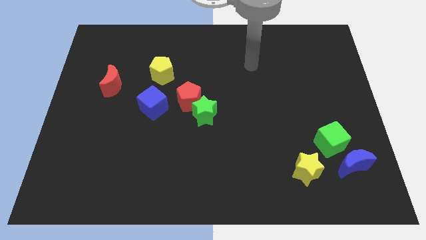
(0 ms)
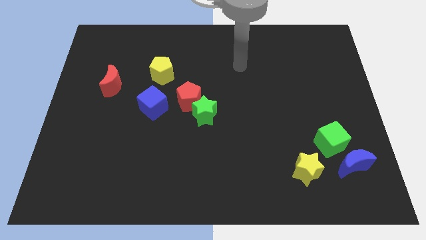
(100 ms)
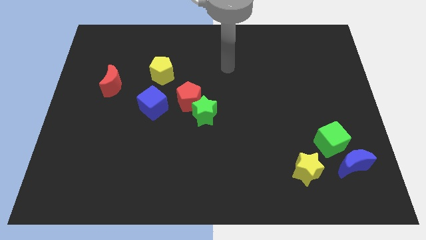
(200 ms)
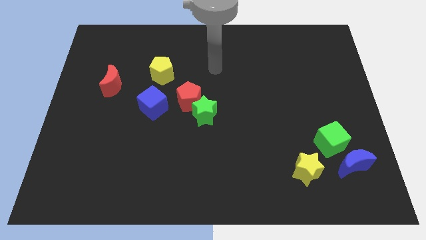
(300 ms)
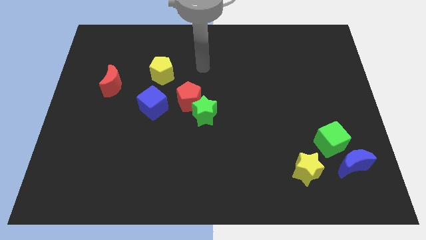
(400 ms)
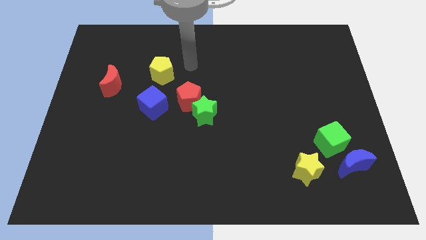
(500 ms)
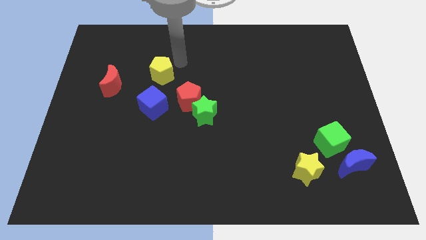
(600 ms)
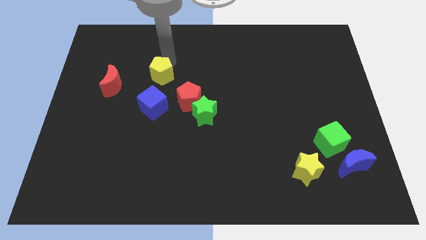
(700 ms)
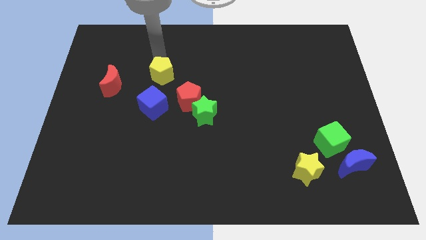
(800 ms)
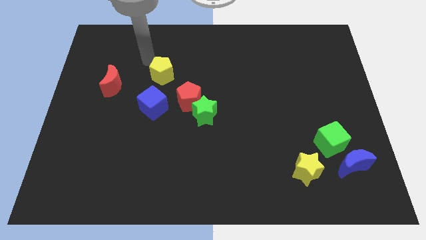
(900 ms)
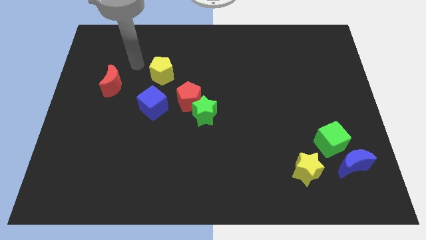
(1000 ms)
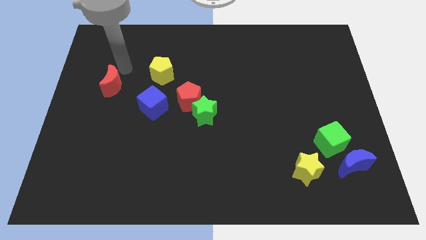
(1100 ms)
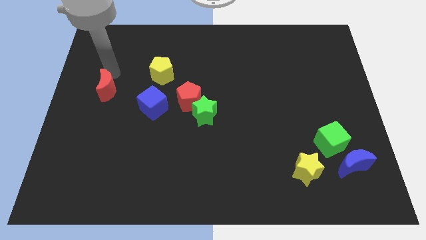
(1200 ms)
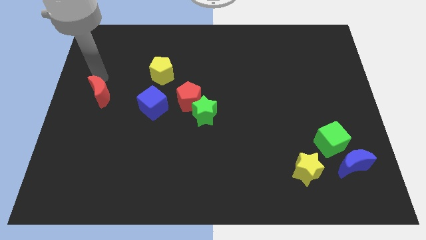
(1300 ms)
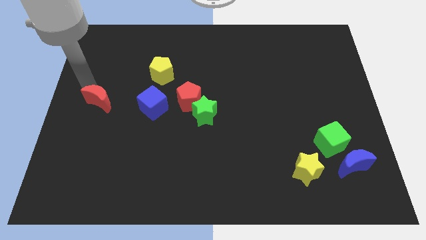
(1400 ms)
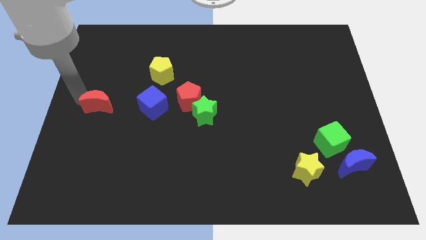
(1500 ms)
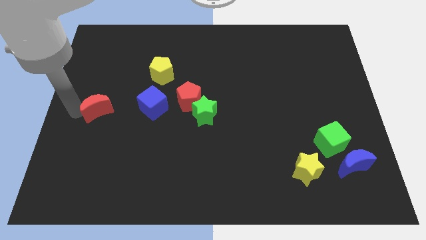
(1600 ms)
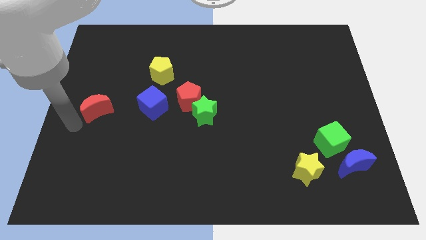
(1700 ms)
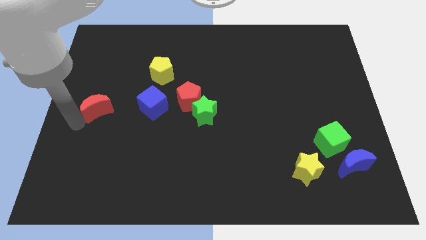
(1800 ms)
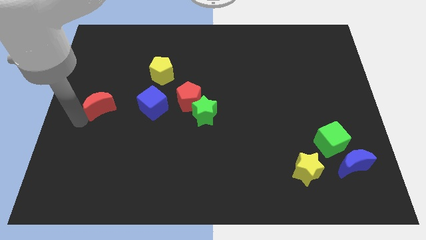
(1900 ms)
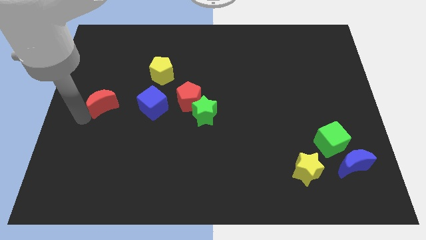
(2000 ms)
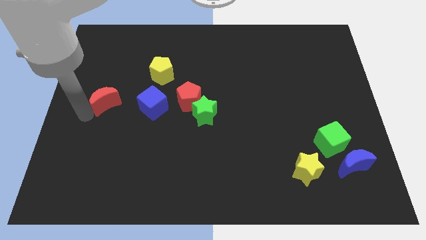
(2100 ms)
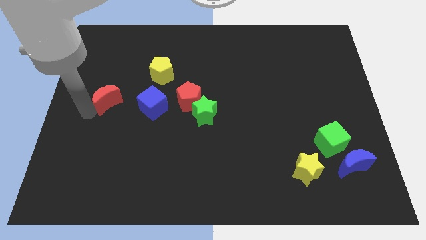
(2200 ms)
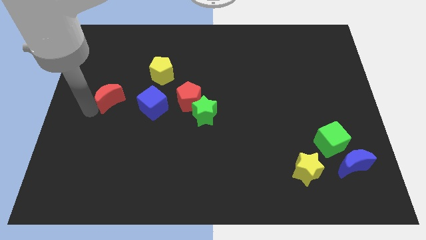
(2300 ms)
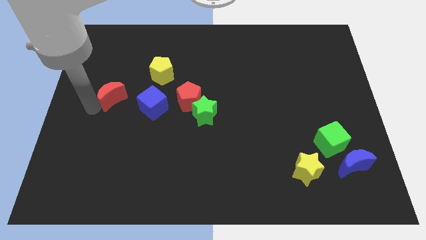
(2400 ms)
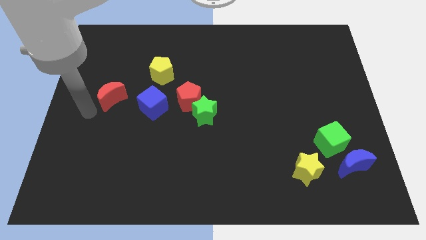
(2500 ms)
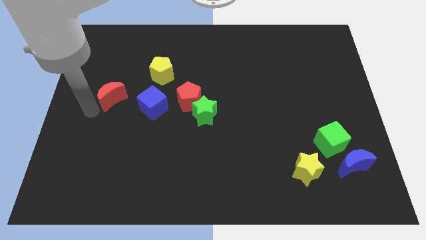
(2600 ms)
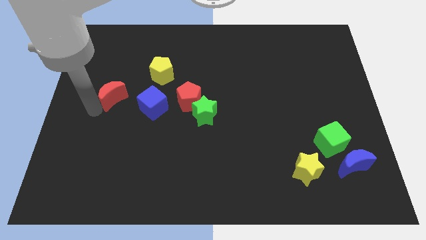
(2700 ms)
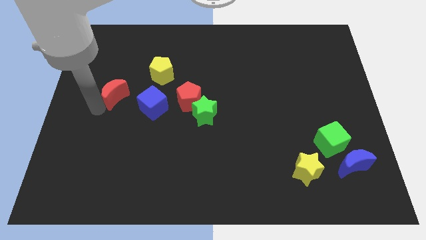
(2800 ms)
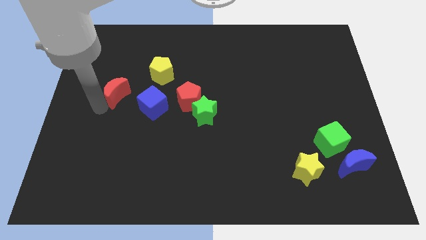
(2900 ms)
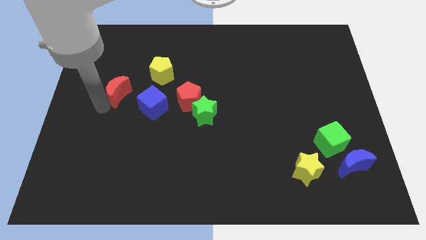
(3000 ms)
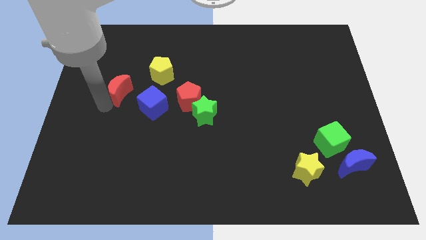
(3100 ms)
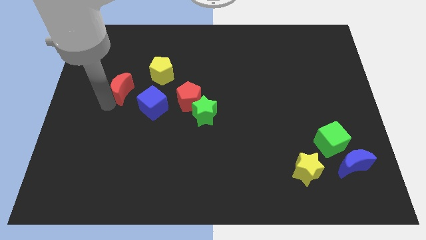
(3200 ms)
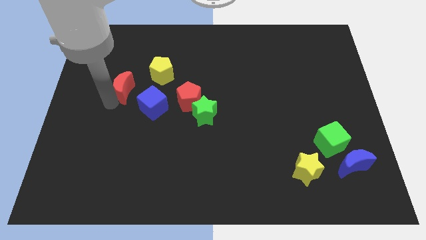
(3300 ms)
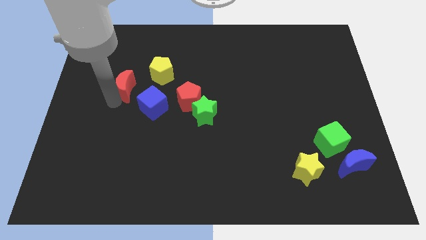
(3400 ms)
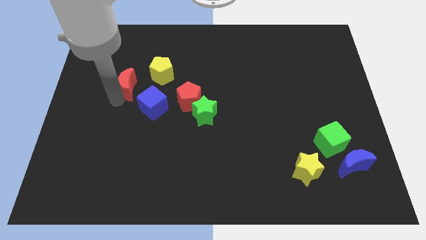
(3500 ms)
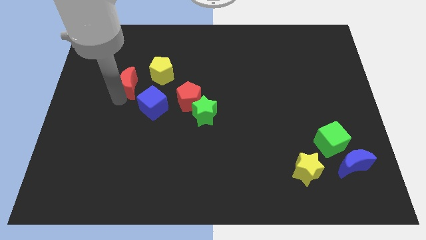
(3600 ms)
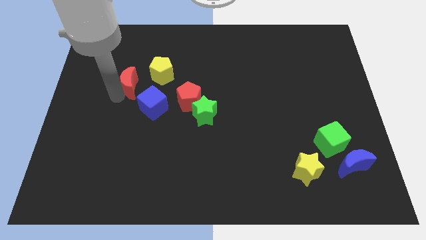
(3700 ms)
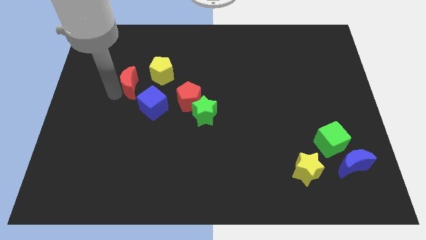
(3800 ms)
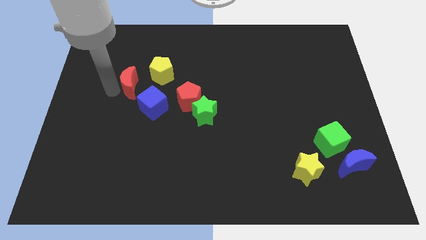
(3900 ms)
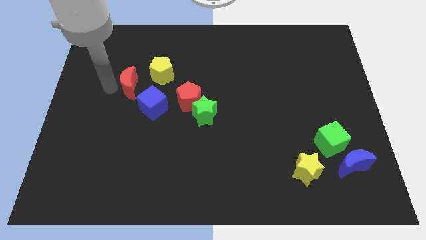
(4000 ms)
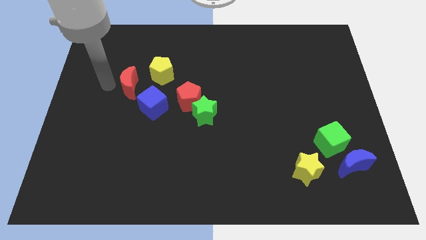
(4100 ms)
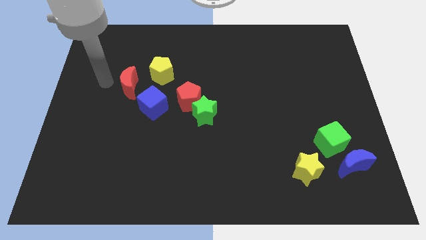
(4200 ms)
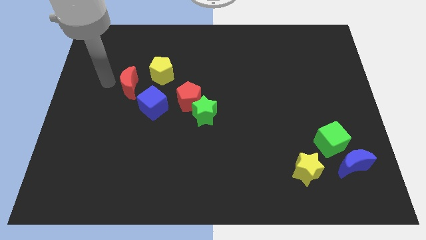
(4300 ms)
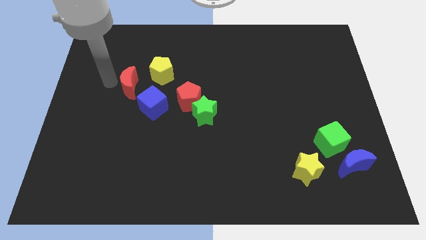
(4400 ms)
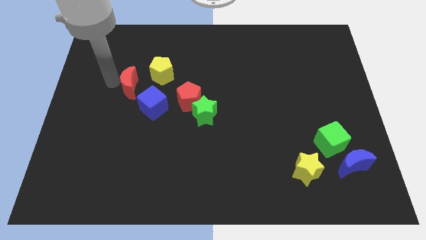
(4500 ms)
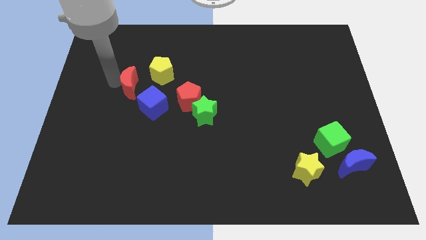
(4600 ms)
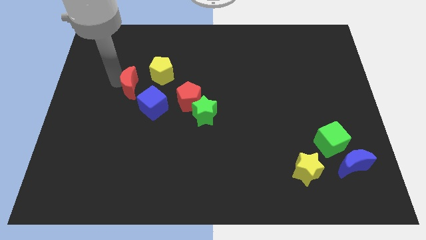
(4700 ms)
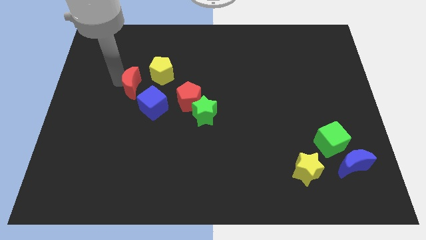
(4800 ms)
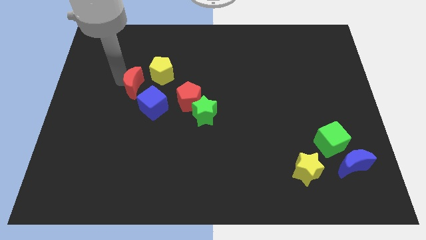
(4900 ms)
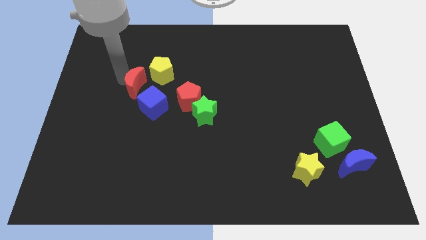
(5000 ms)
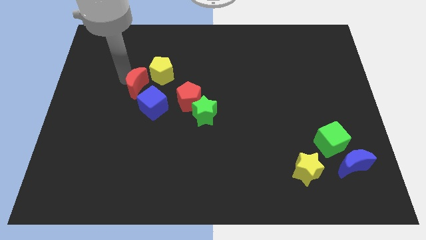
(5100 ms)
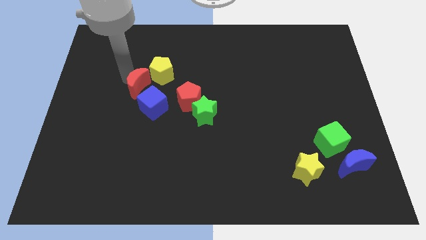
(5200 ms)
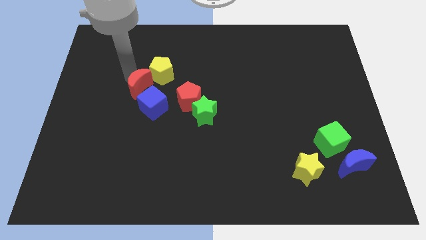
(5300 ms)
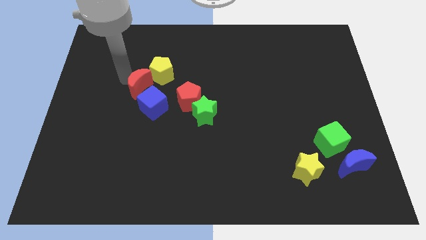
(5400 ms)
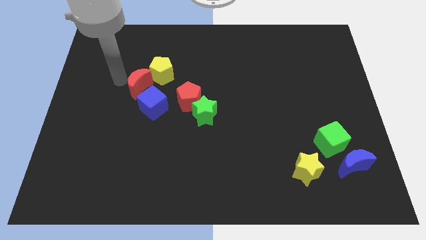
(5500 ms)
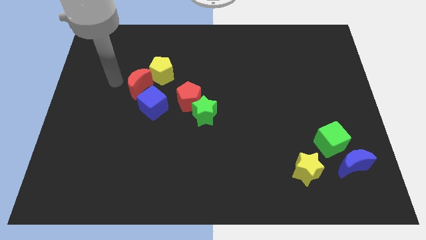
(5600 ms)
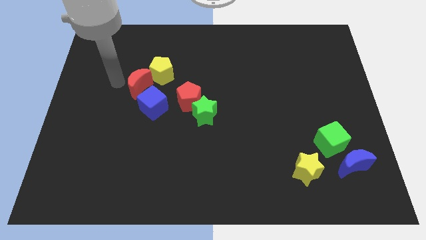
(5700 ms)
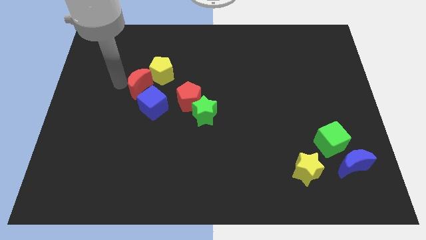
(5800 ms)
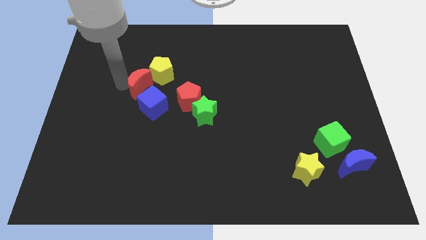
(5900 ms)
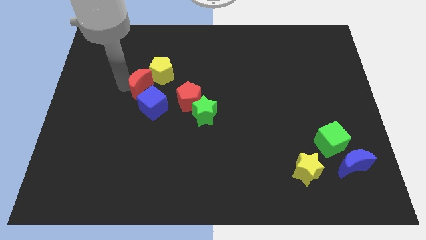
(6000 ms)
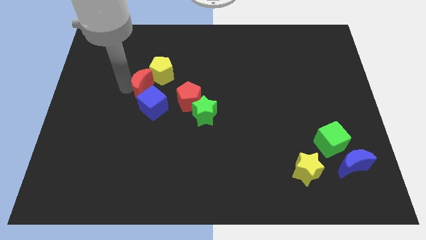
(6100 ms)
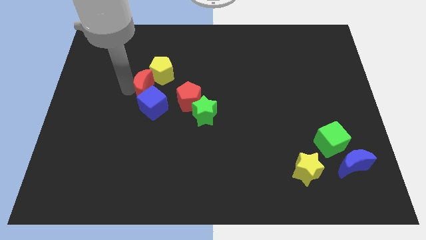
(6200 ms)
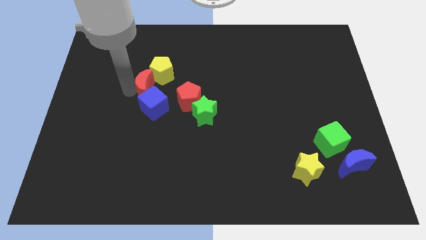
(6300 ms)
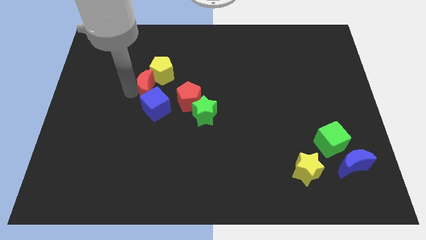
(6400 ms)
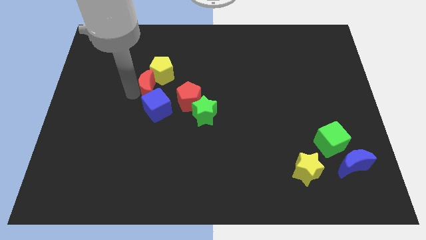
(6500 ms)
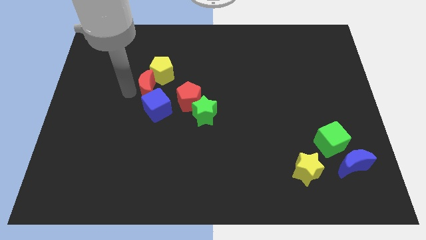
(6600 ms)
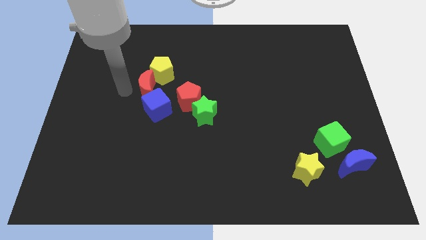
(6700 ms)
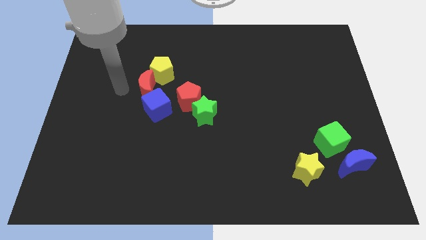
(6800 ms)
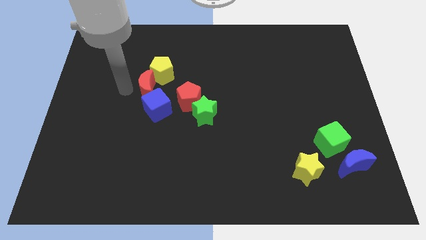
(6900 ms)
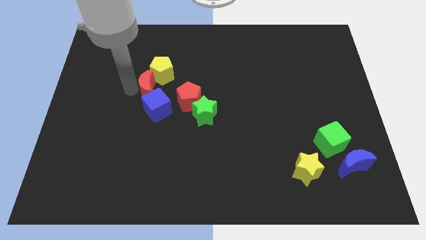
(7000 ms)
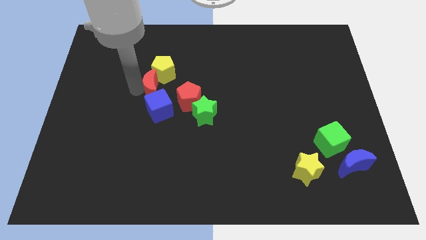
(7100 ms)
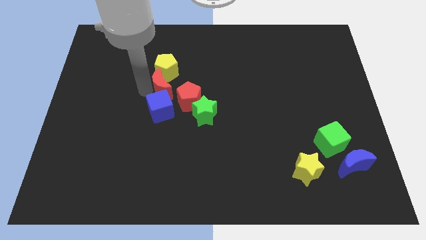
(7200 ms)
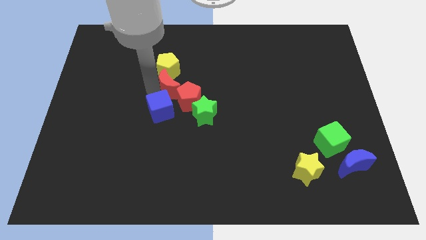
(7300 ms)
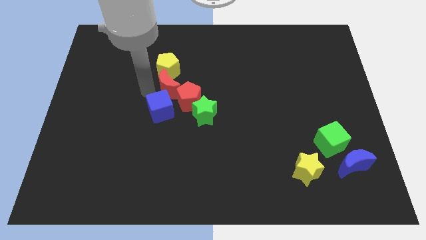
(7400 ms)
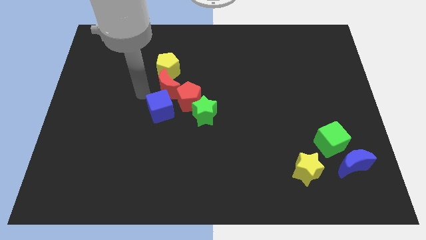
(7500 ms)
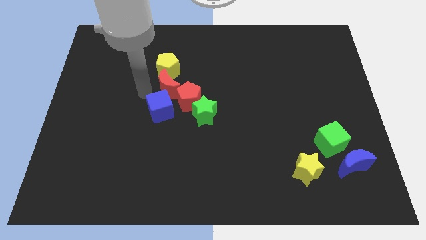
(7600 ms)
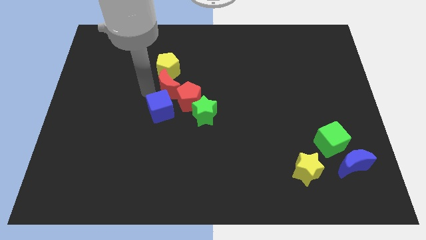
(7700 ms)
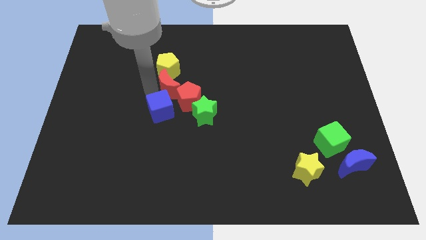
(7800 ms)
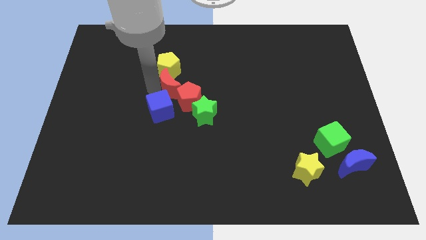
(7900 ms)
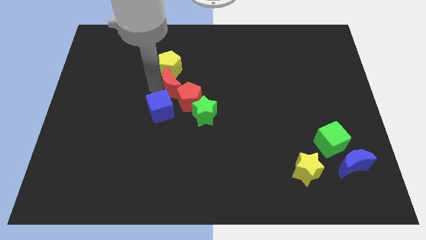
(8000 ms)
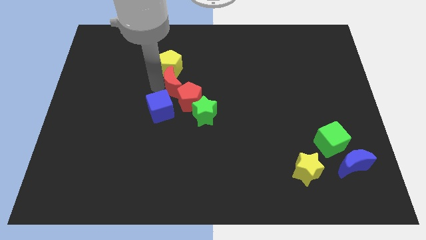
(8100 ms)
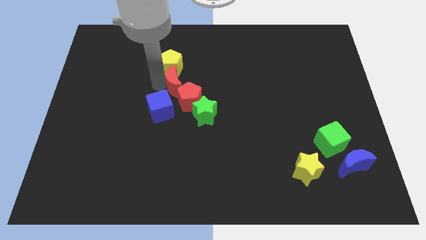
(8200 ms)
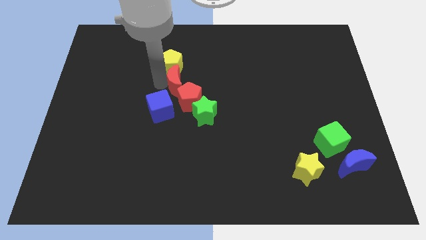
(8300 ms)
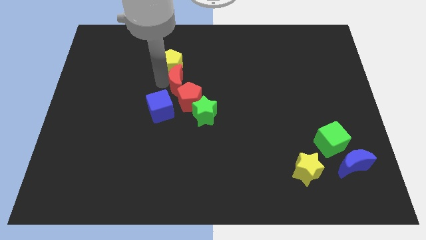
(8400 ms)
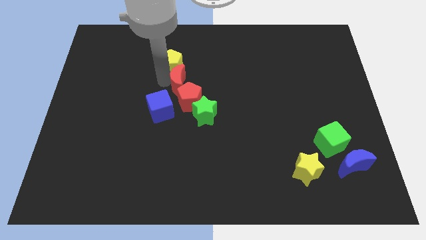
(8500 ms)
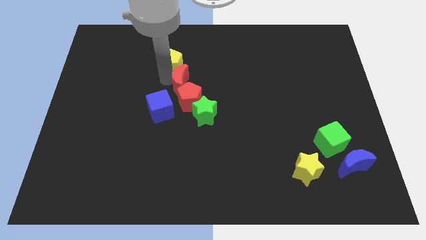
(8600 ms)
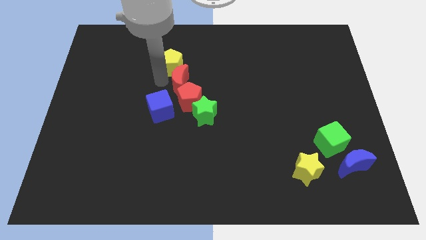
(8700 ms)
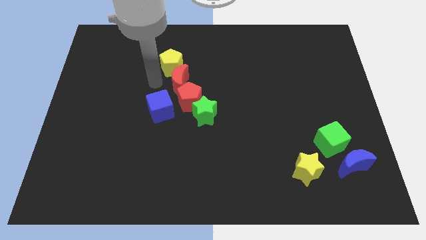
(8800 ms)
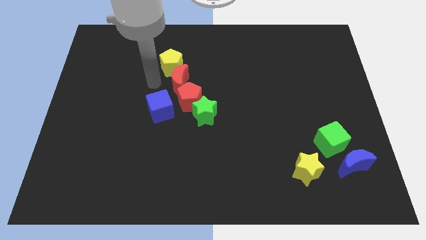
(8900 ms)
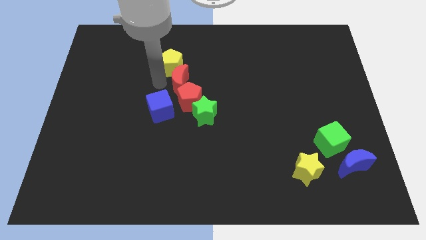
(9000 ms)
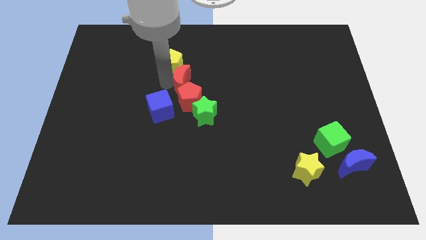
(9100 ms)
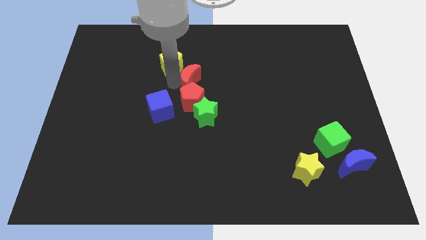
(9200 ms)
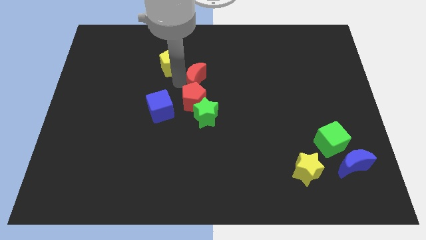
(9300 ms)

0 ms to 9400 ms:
slide the red moon to the right
